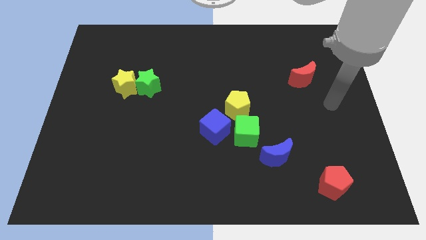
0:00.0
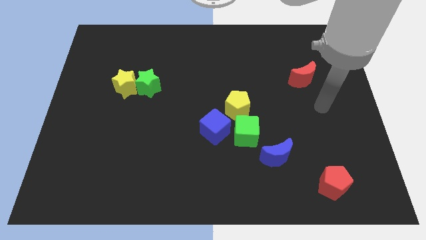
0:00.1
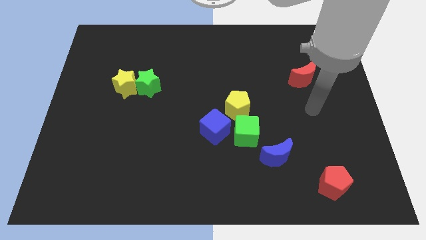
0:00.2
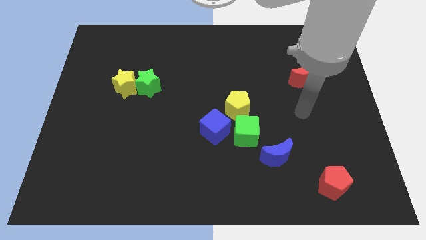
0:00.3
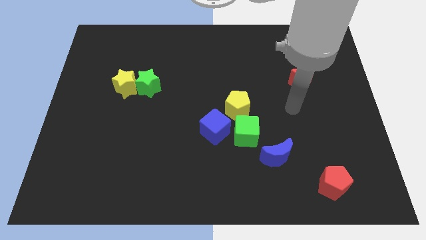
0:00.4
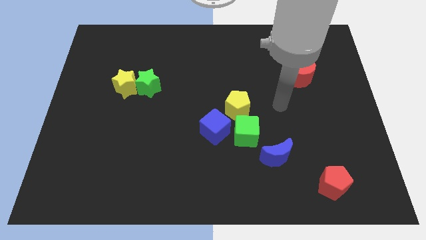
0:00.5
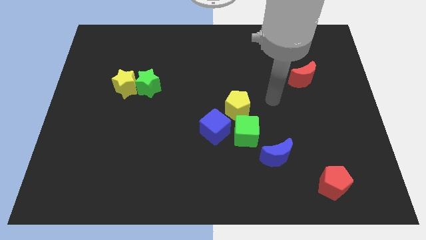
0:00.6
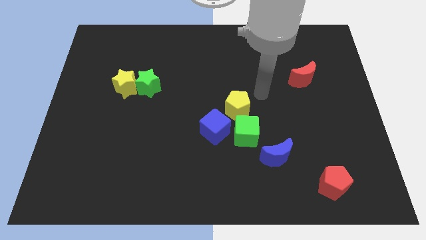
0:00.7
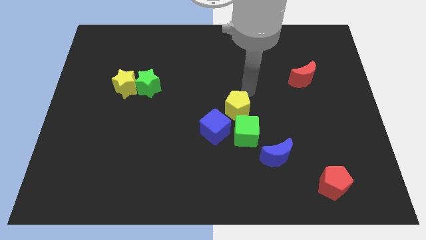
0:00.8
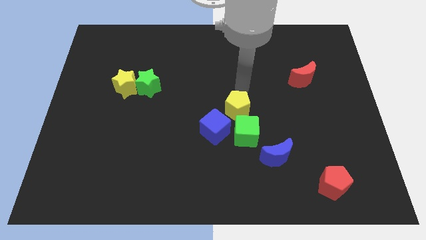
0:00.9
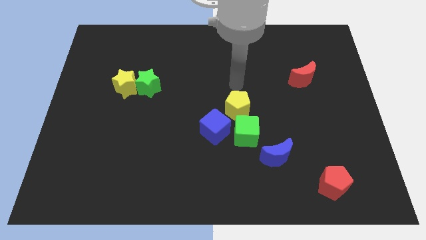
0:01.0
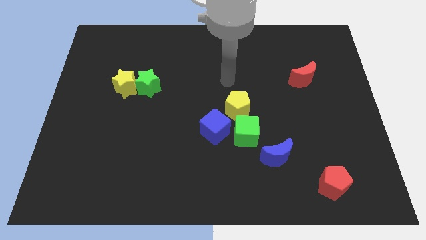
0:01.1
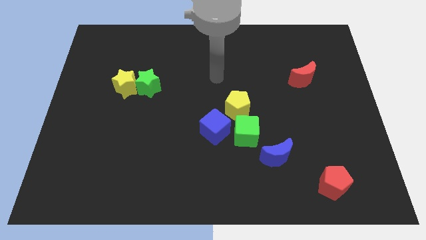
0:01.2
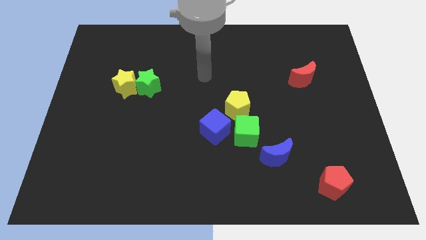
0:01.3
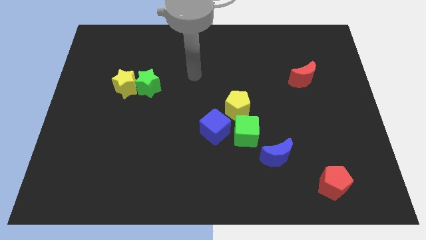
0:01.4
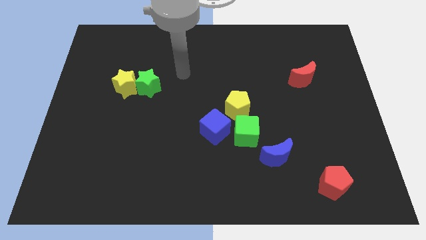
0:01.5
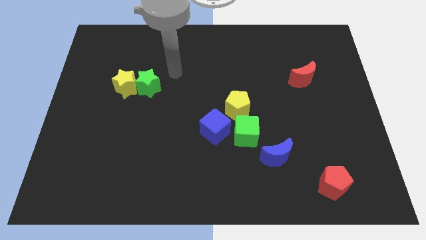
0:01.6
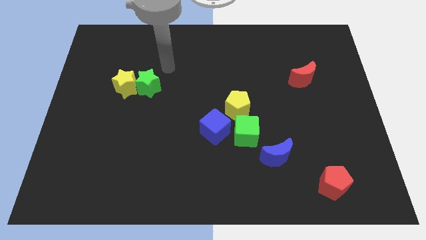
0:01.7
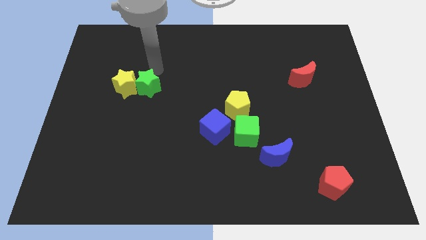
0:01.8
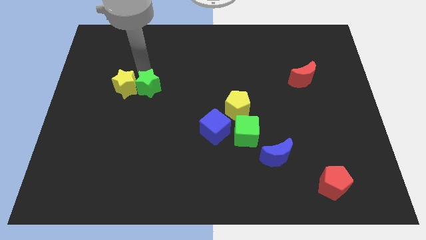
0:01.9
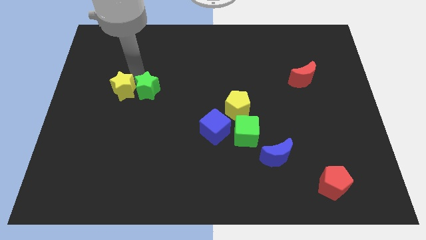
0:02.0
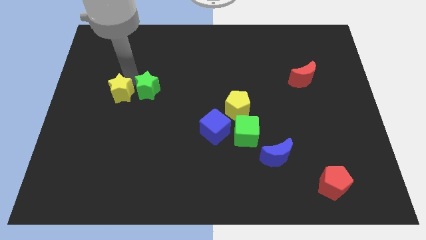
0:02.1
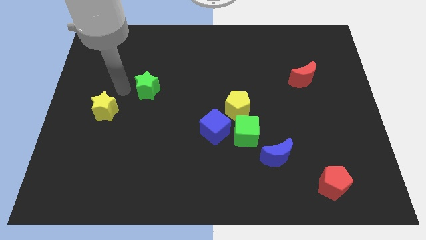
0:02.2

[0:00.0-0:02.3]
move the green star away from the yellow star

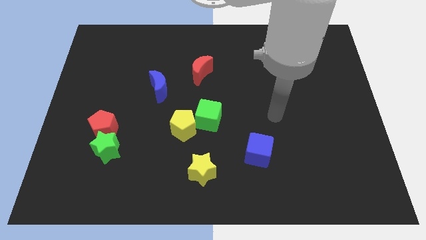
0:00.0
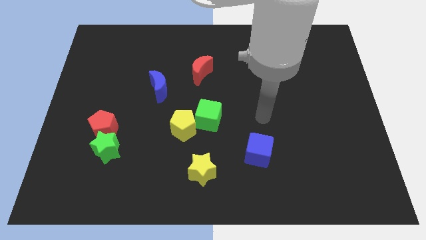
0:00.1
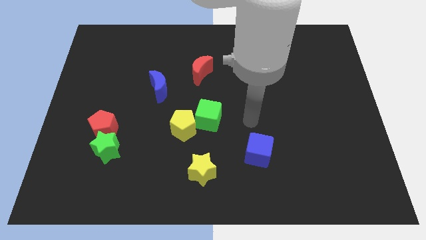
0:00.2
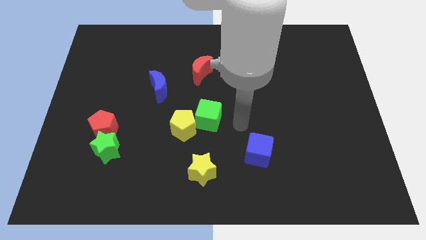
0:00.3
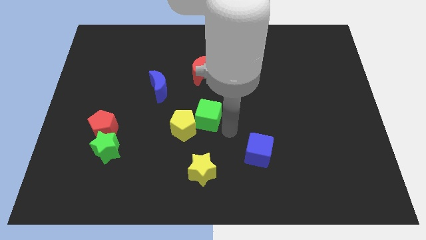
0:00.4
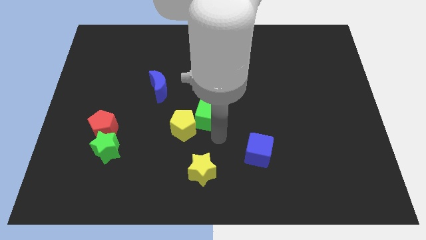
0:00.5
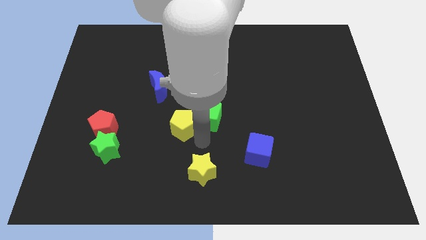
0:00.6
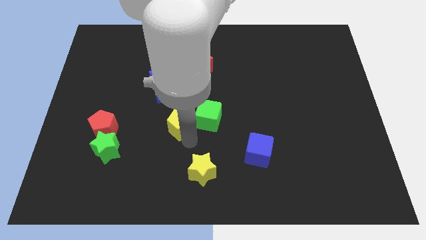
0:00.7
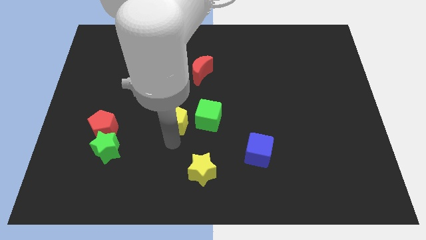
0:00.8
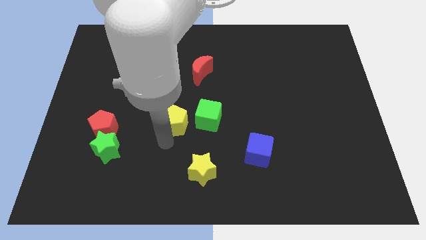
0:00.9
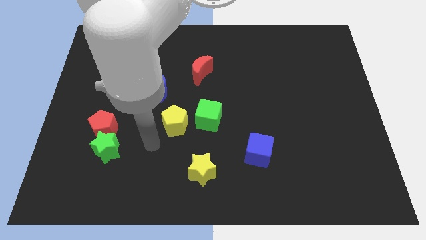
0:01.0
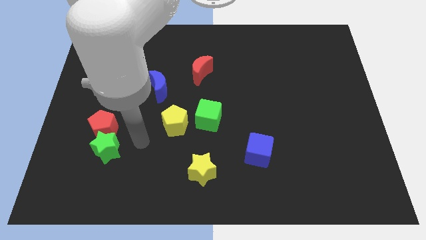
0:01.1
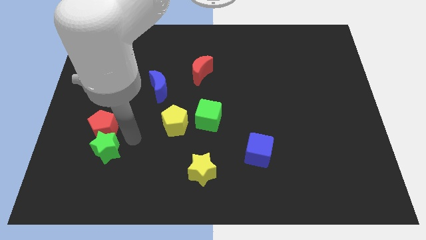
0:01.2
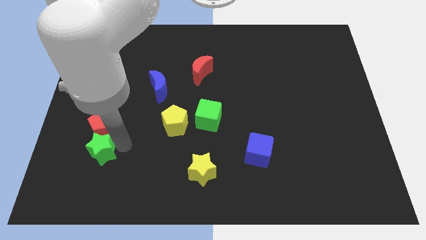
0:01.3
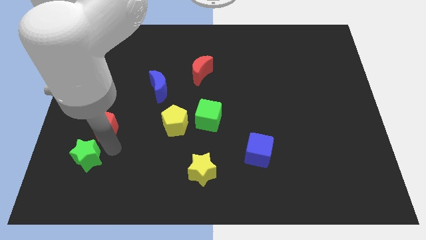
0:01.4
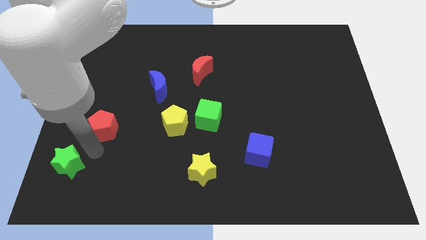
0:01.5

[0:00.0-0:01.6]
pull the red pentagon apart from the green star

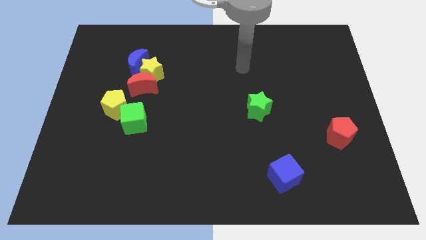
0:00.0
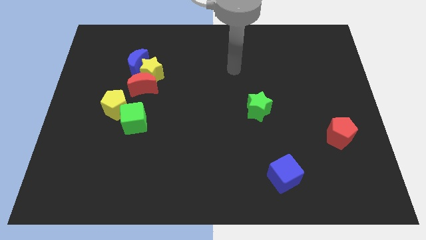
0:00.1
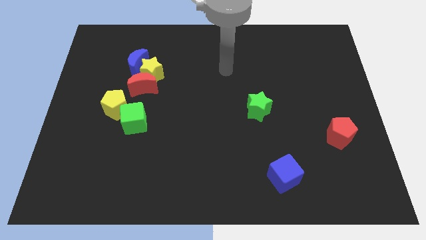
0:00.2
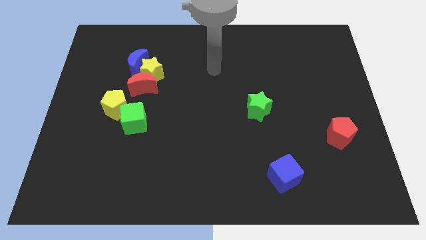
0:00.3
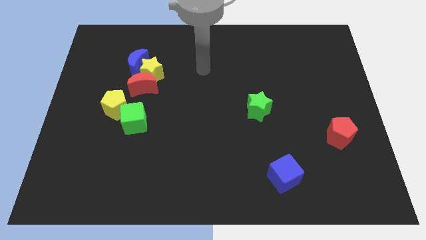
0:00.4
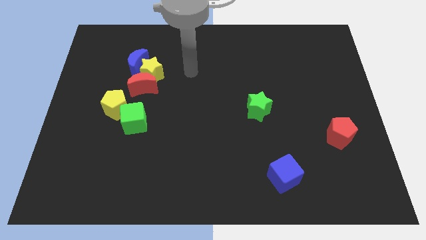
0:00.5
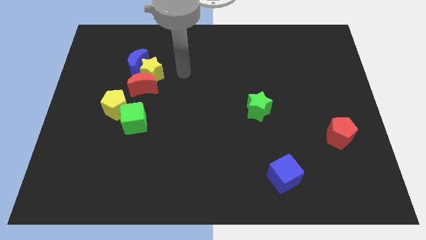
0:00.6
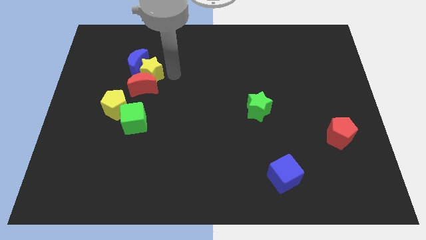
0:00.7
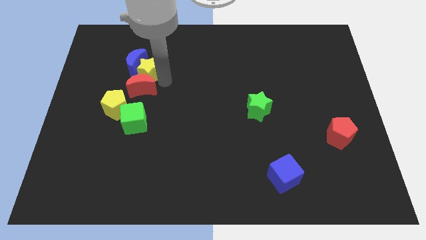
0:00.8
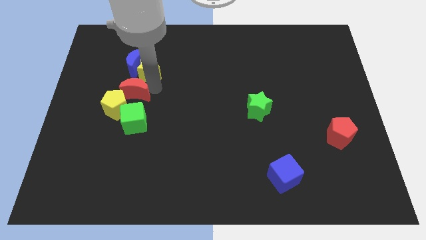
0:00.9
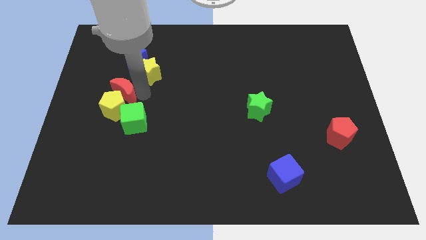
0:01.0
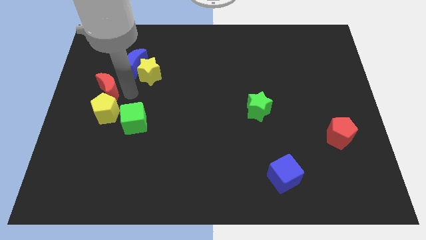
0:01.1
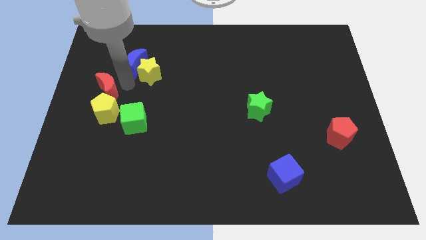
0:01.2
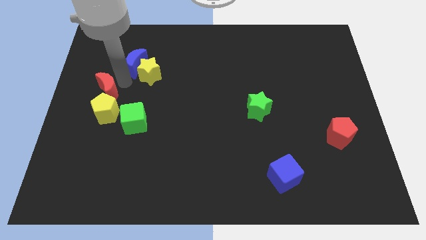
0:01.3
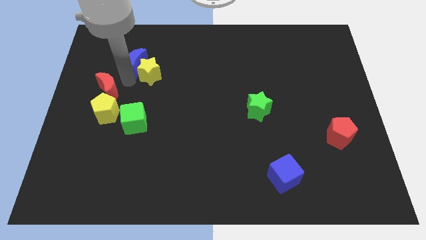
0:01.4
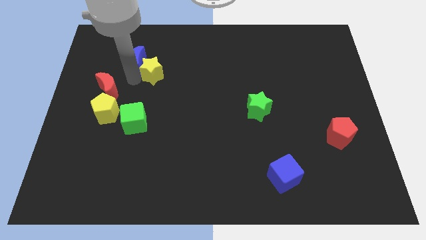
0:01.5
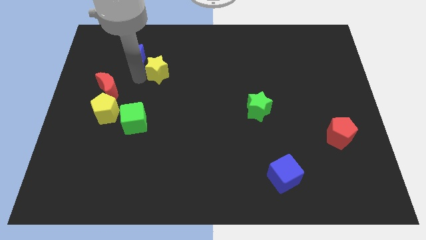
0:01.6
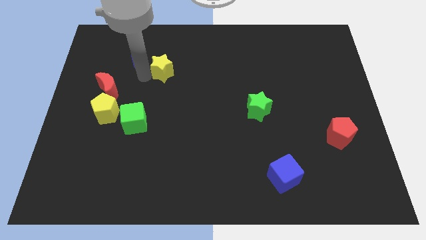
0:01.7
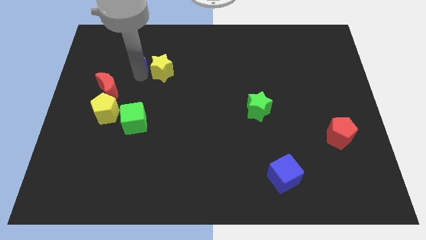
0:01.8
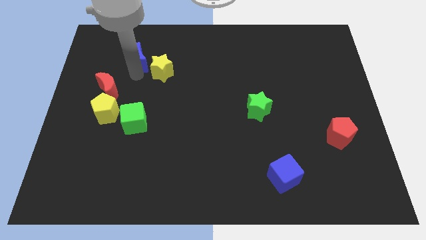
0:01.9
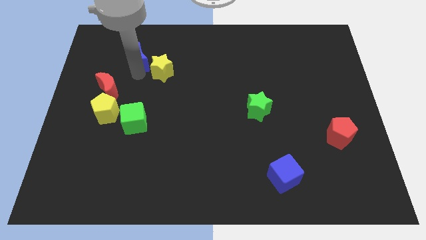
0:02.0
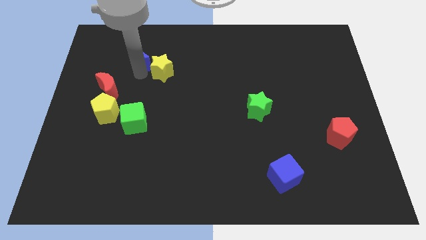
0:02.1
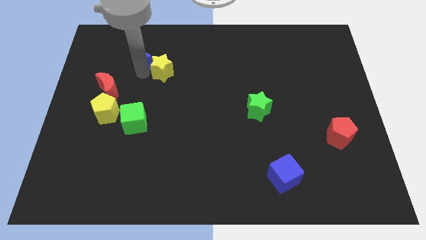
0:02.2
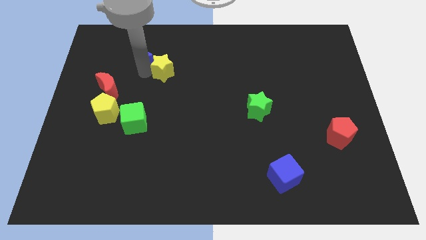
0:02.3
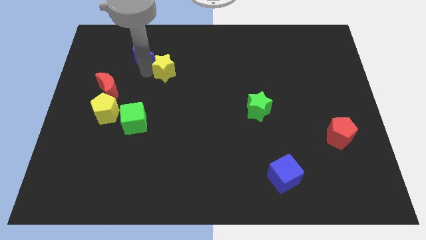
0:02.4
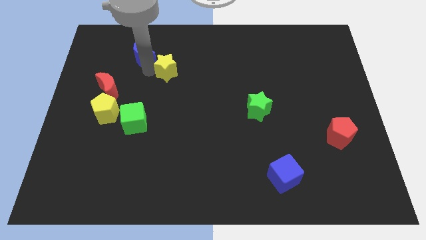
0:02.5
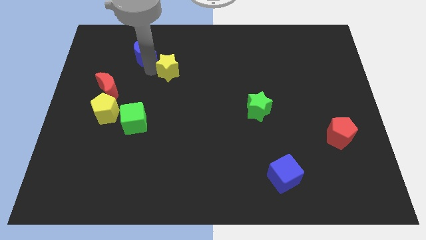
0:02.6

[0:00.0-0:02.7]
move the yellow star away from the red moon and blue moon

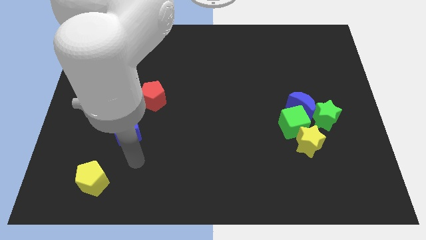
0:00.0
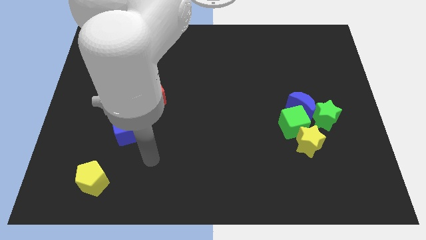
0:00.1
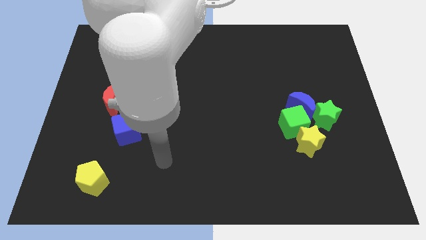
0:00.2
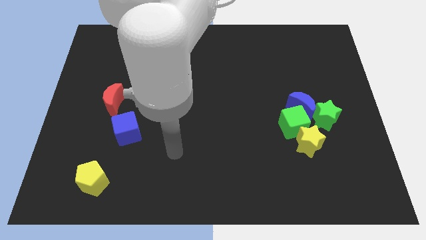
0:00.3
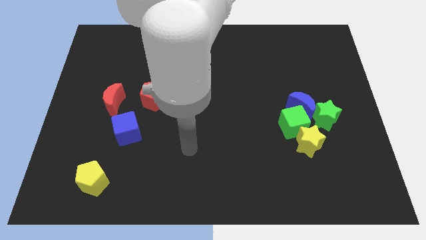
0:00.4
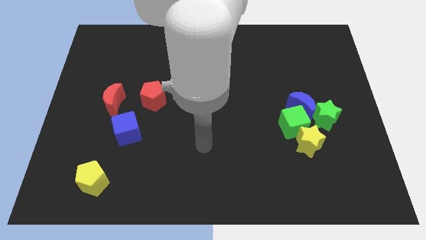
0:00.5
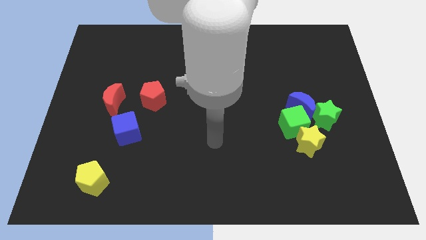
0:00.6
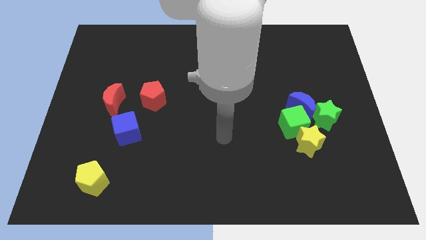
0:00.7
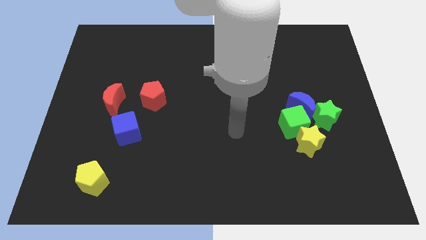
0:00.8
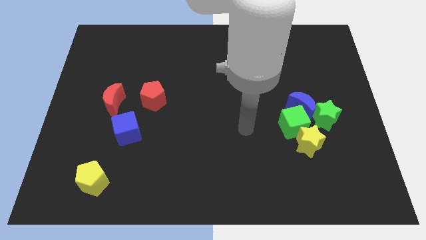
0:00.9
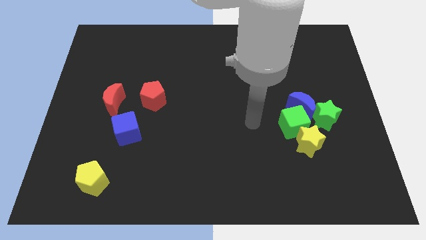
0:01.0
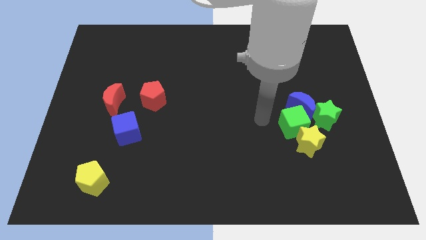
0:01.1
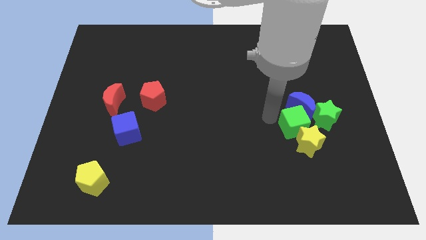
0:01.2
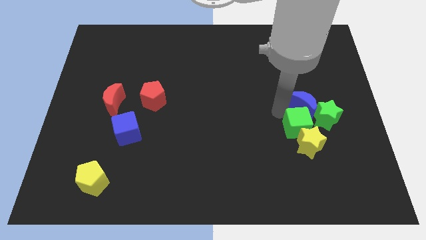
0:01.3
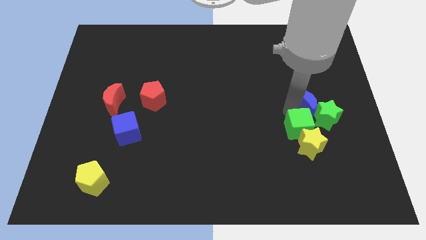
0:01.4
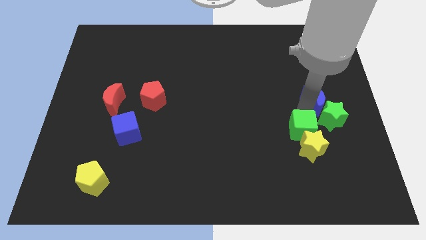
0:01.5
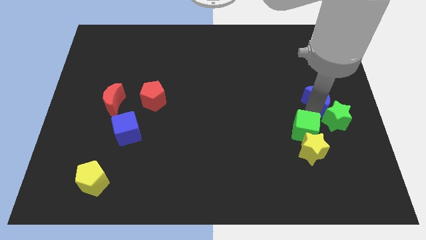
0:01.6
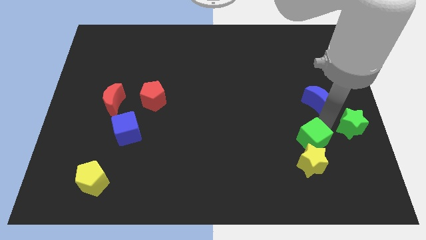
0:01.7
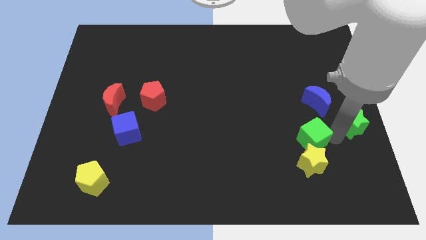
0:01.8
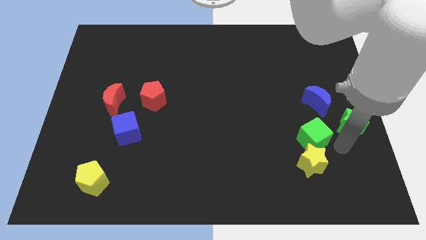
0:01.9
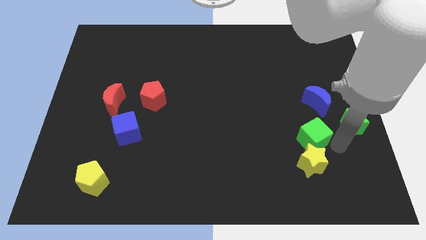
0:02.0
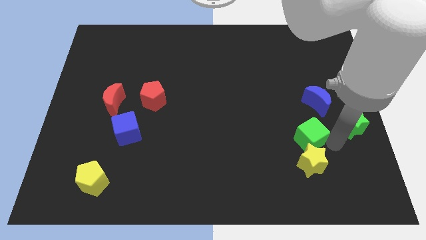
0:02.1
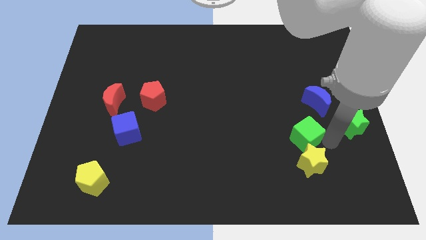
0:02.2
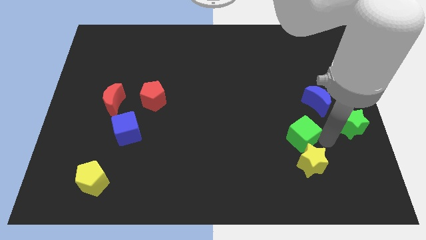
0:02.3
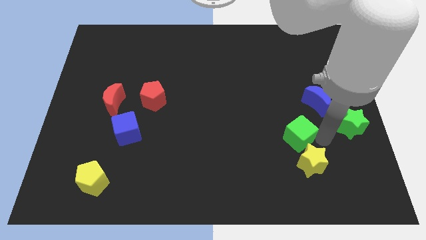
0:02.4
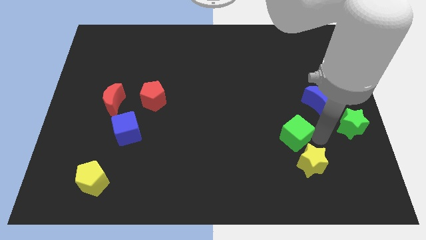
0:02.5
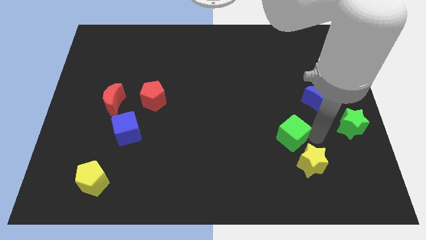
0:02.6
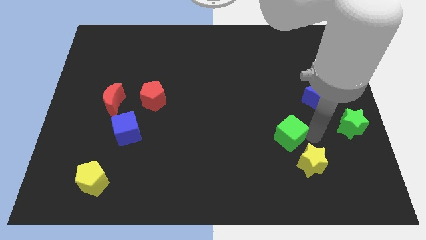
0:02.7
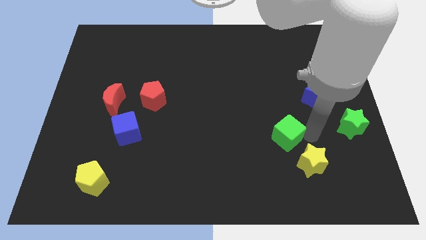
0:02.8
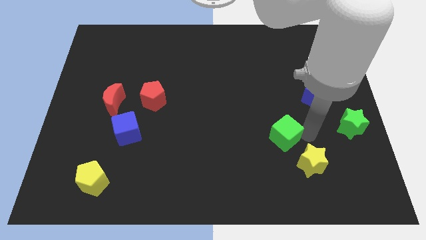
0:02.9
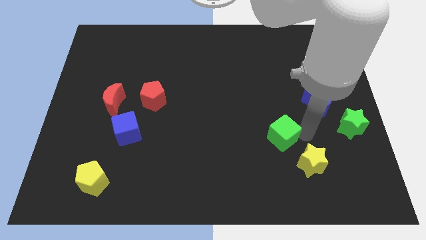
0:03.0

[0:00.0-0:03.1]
separate the green cube from the clump
